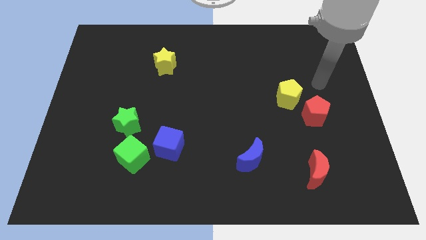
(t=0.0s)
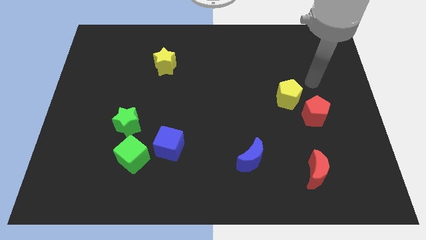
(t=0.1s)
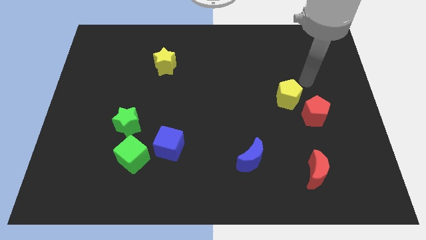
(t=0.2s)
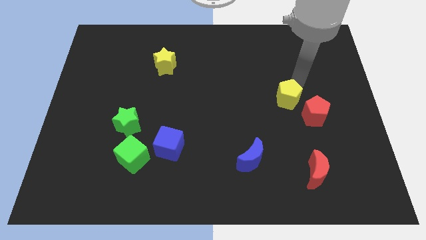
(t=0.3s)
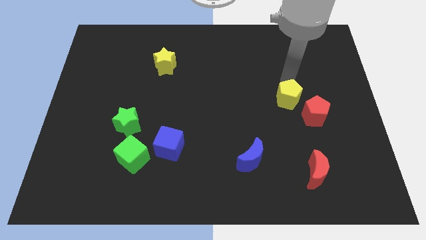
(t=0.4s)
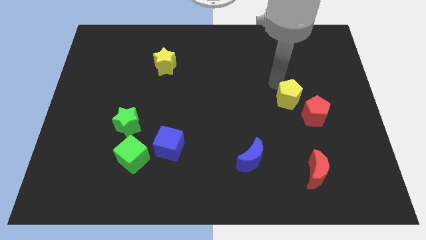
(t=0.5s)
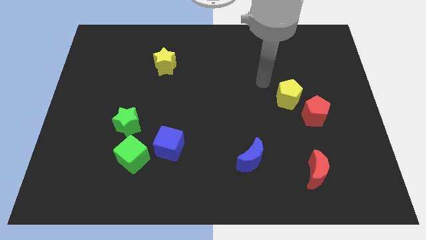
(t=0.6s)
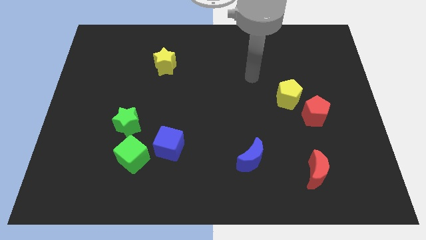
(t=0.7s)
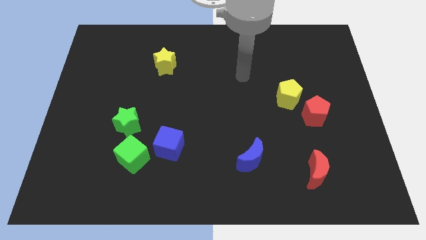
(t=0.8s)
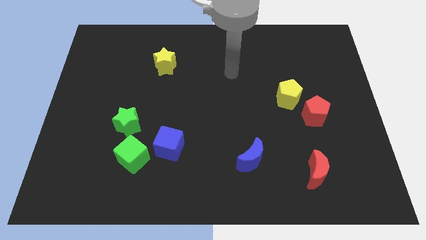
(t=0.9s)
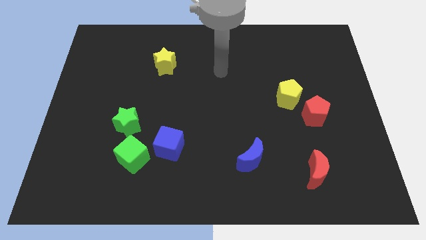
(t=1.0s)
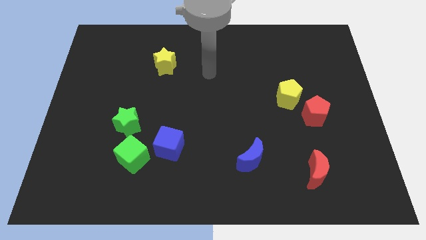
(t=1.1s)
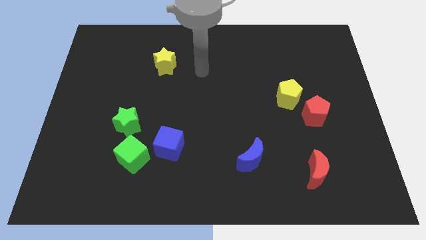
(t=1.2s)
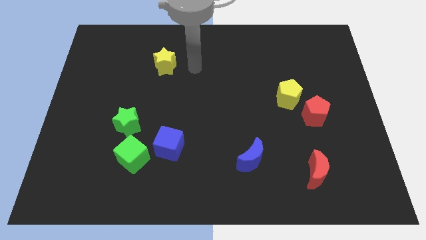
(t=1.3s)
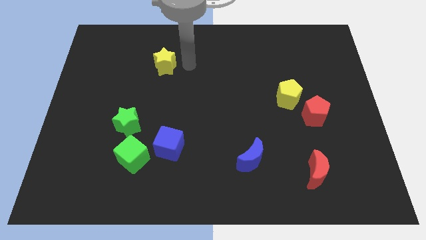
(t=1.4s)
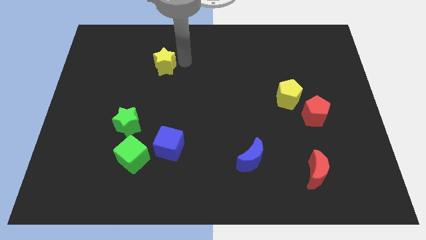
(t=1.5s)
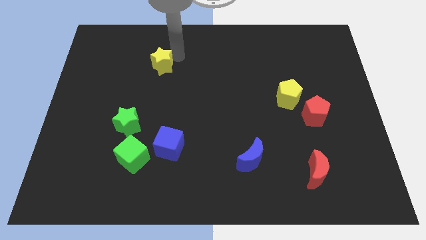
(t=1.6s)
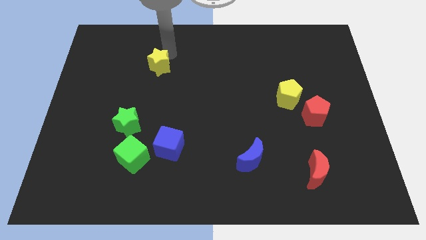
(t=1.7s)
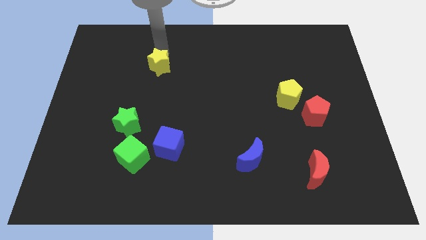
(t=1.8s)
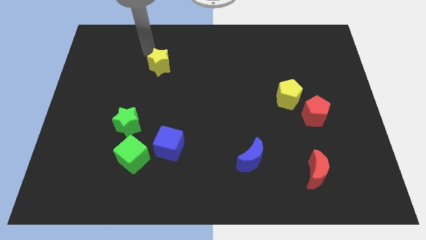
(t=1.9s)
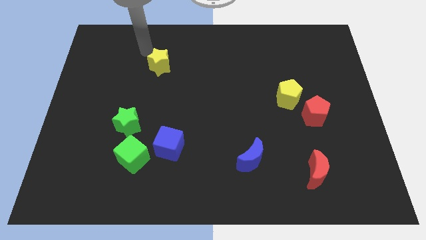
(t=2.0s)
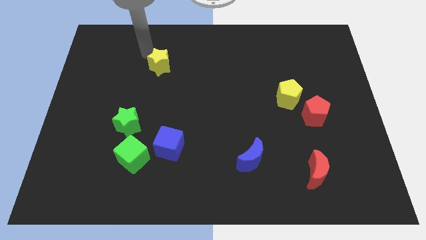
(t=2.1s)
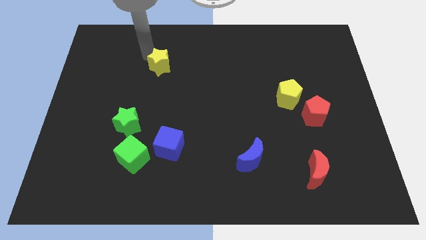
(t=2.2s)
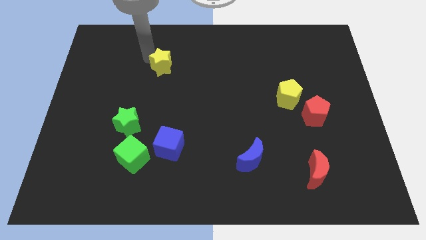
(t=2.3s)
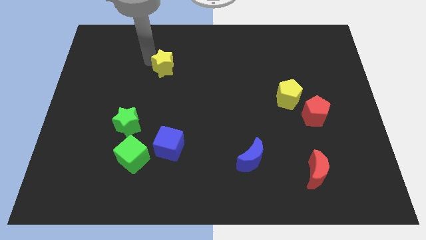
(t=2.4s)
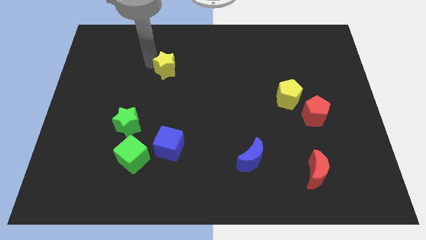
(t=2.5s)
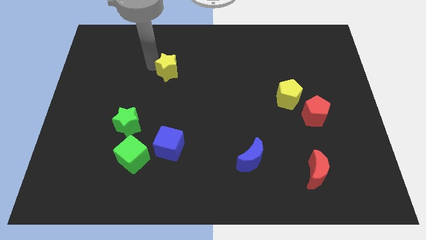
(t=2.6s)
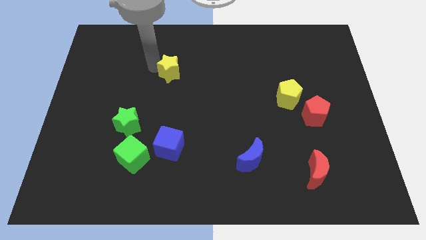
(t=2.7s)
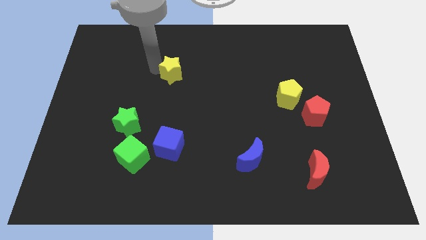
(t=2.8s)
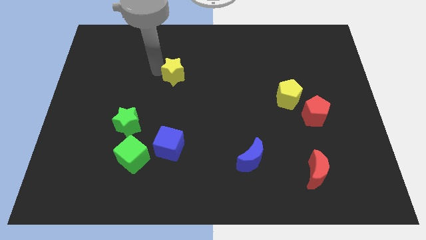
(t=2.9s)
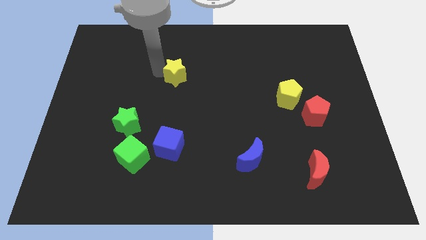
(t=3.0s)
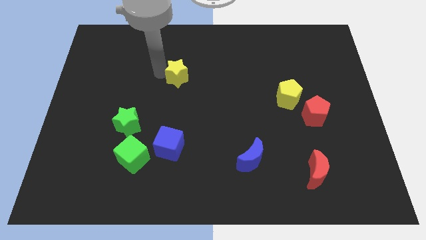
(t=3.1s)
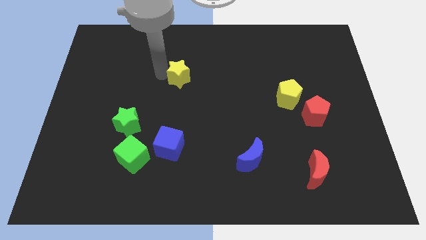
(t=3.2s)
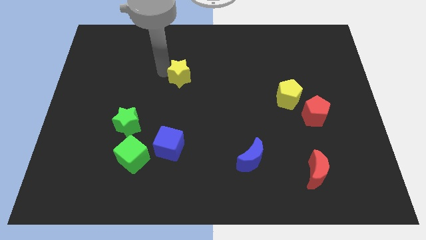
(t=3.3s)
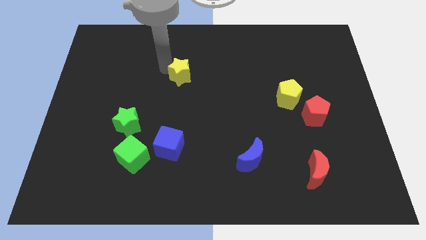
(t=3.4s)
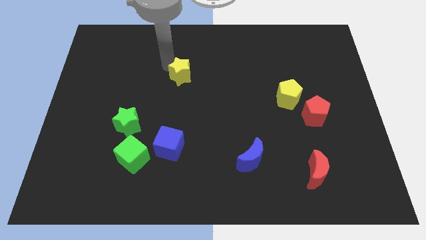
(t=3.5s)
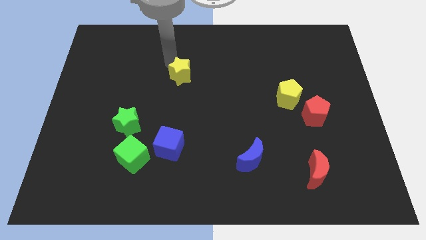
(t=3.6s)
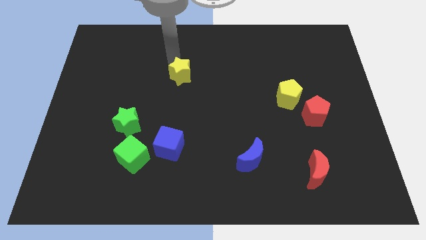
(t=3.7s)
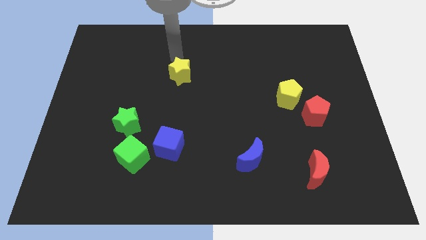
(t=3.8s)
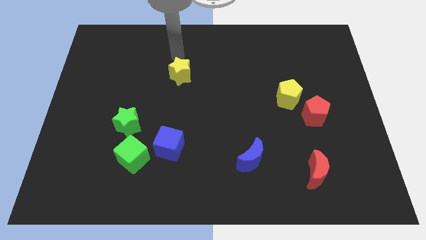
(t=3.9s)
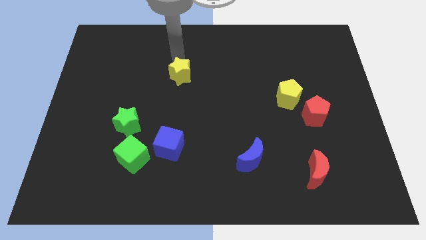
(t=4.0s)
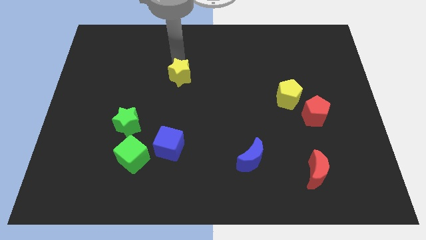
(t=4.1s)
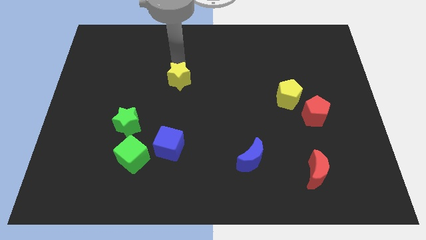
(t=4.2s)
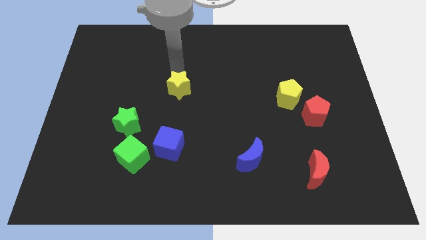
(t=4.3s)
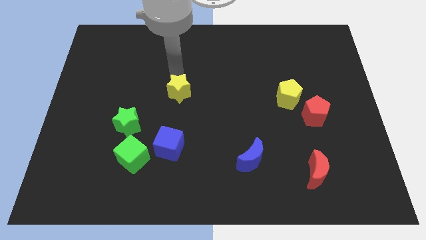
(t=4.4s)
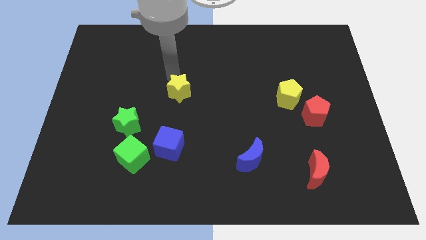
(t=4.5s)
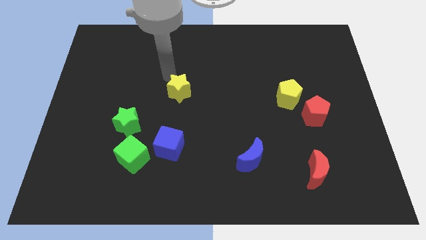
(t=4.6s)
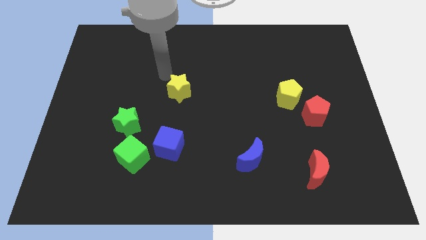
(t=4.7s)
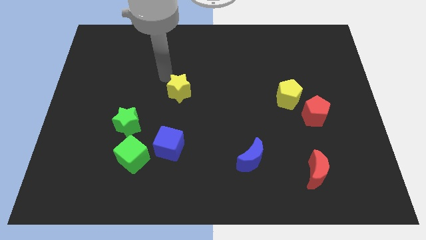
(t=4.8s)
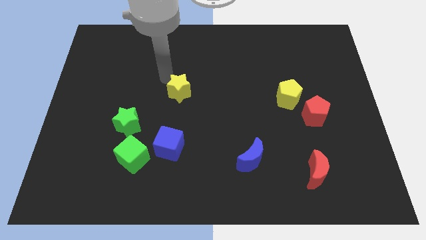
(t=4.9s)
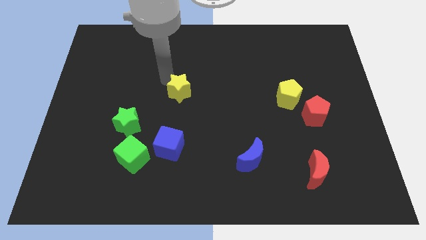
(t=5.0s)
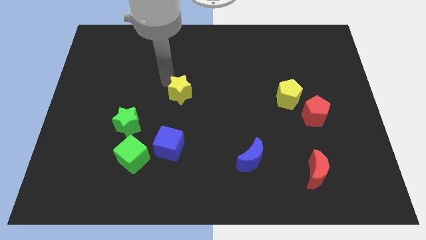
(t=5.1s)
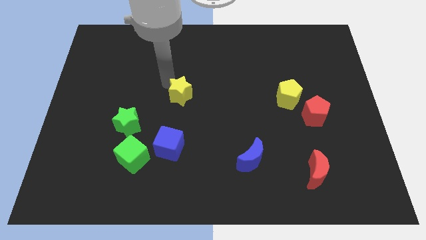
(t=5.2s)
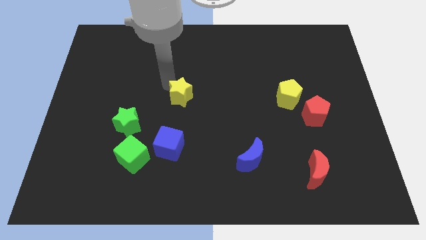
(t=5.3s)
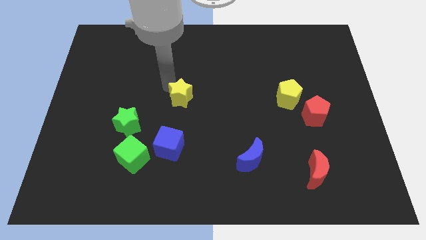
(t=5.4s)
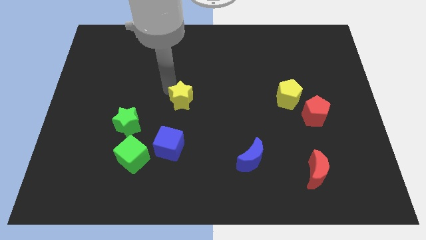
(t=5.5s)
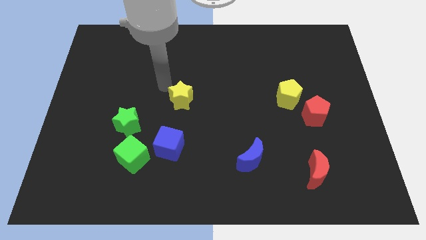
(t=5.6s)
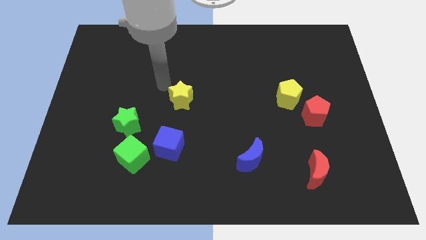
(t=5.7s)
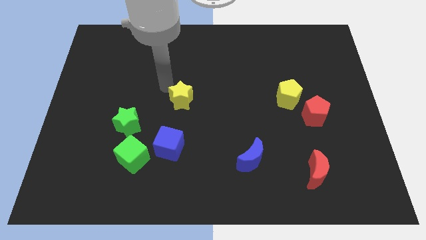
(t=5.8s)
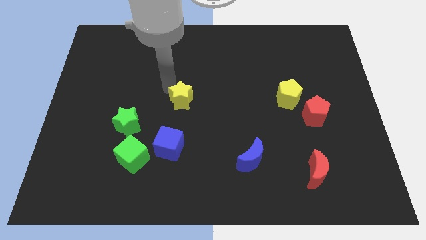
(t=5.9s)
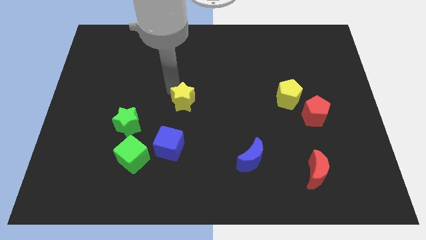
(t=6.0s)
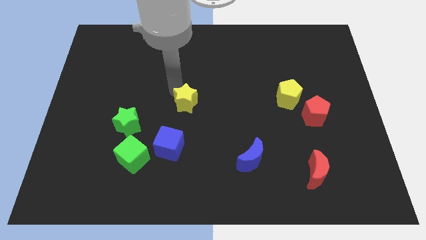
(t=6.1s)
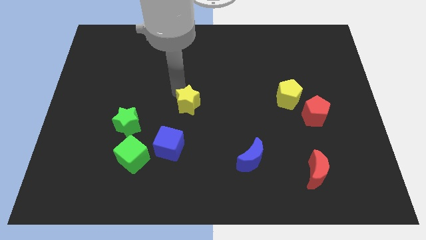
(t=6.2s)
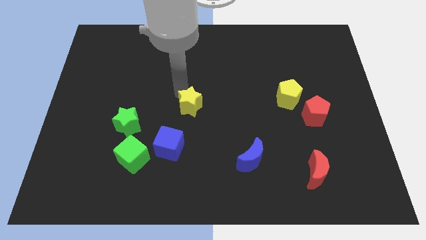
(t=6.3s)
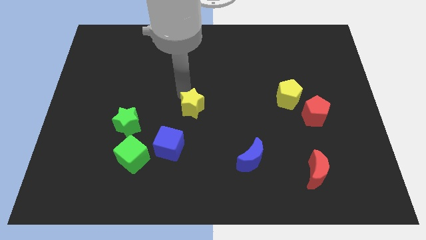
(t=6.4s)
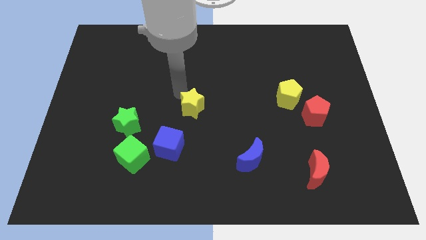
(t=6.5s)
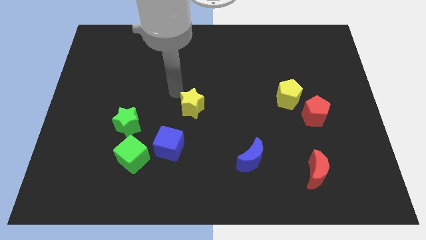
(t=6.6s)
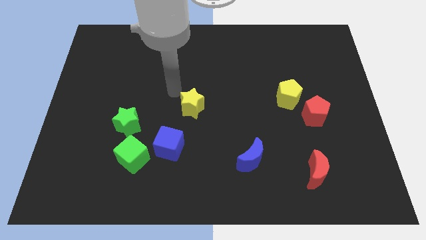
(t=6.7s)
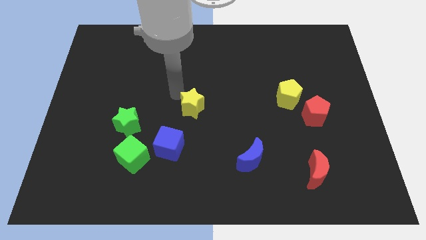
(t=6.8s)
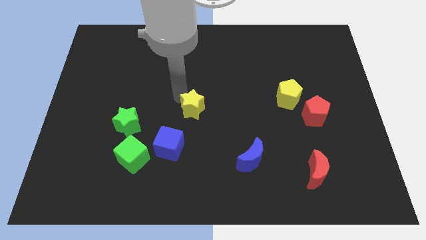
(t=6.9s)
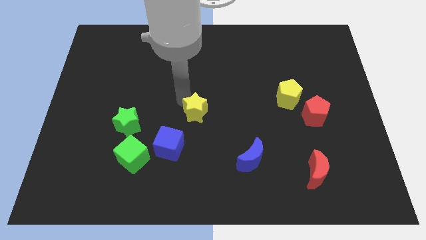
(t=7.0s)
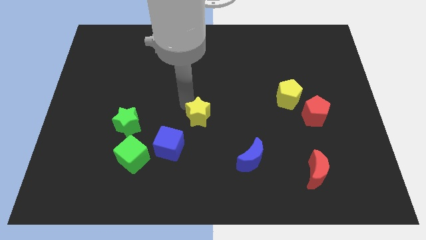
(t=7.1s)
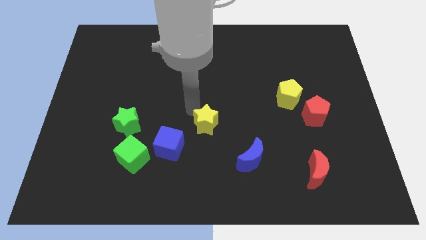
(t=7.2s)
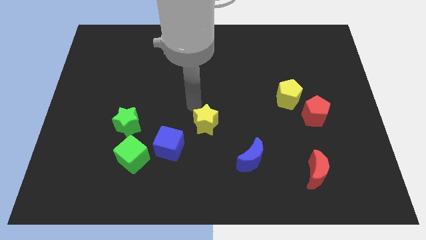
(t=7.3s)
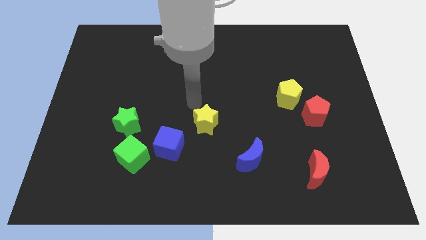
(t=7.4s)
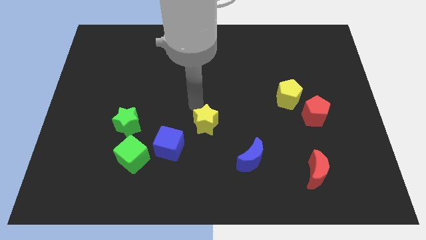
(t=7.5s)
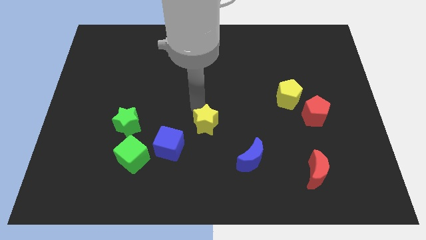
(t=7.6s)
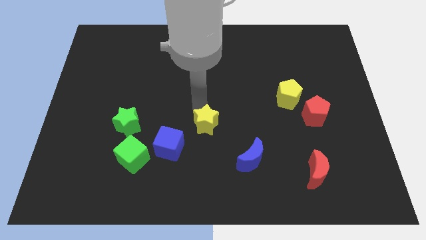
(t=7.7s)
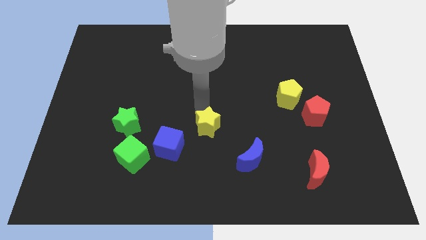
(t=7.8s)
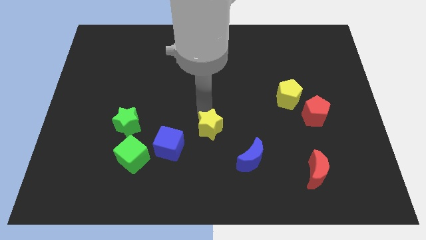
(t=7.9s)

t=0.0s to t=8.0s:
put the yellow star to the right side of the blue cube
